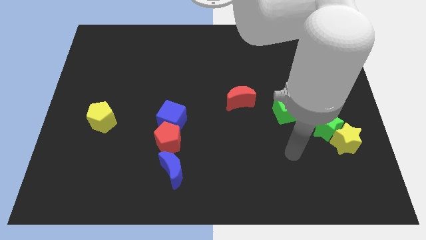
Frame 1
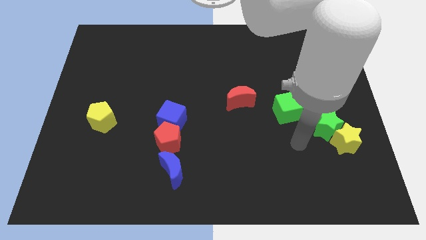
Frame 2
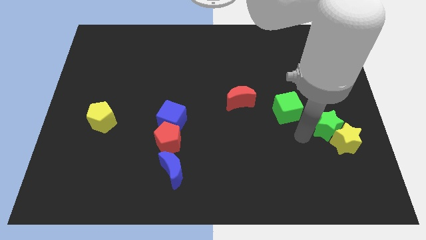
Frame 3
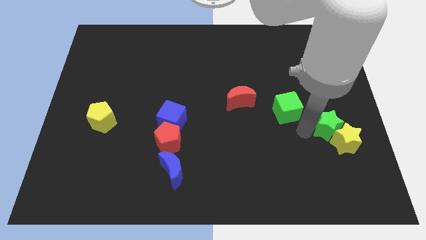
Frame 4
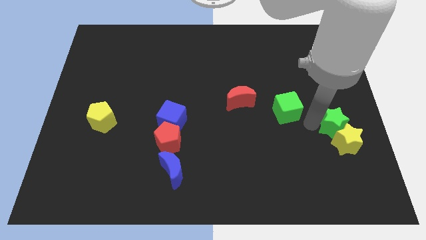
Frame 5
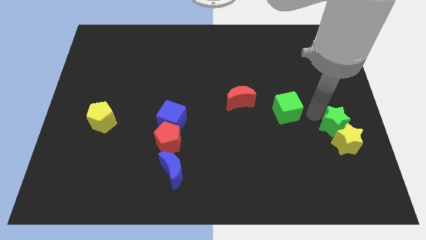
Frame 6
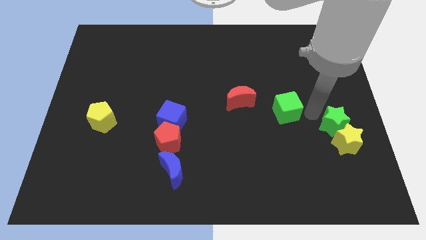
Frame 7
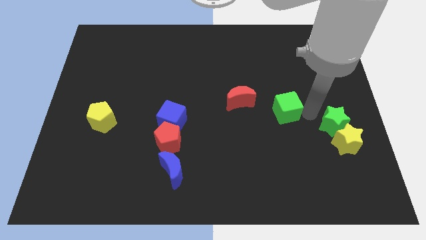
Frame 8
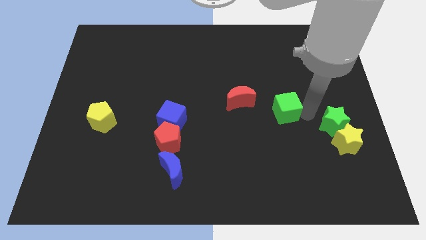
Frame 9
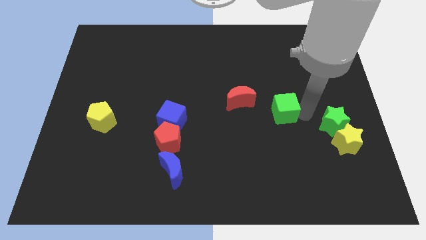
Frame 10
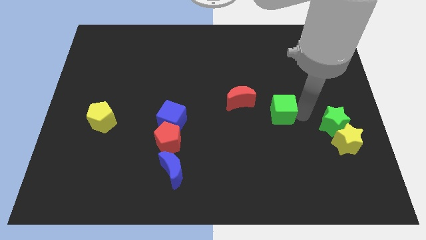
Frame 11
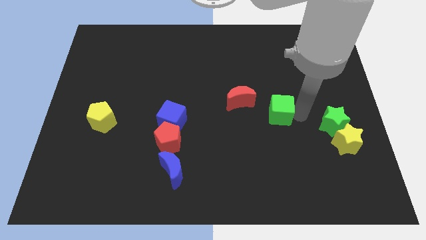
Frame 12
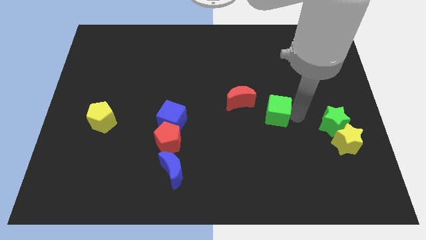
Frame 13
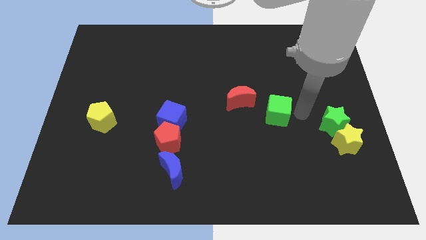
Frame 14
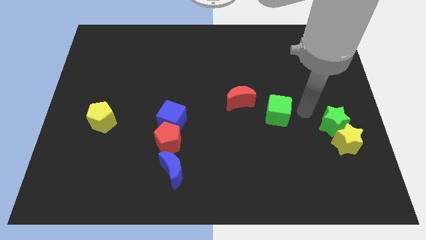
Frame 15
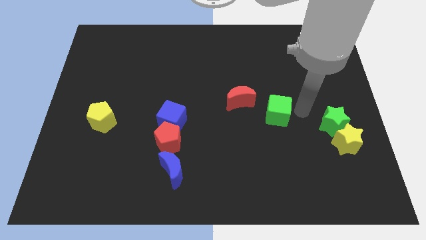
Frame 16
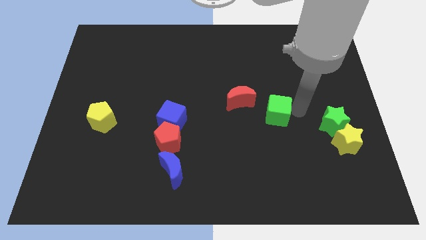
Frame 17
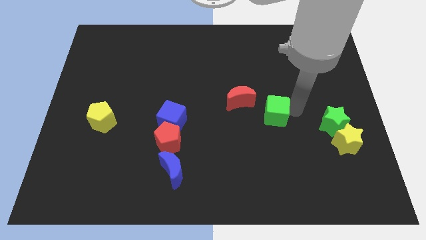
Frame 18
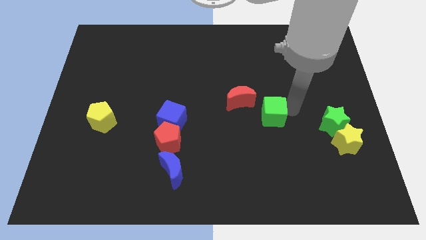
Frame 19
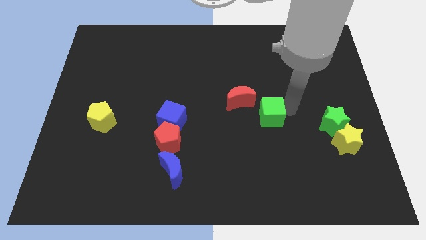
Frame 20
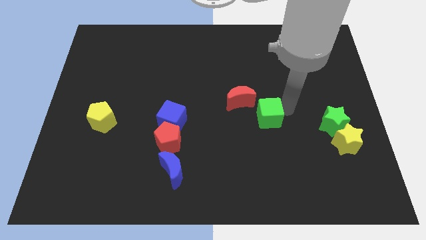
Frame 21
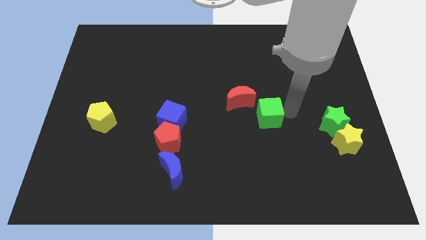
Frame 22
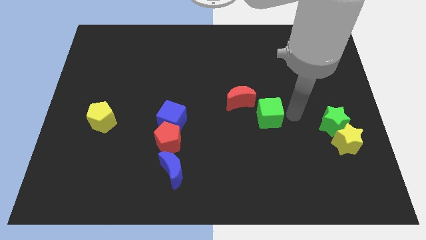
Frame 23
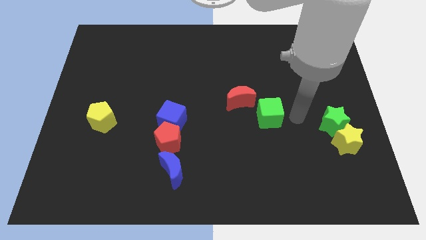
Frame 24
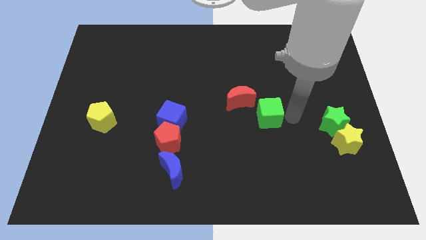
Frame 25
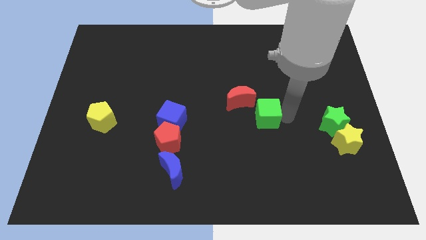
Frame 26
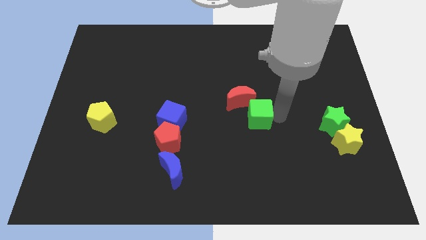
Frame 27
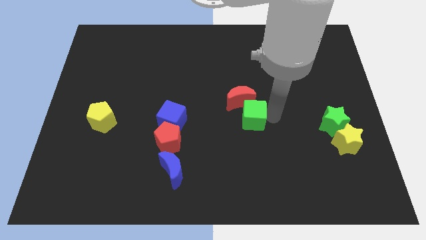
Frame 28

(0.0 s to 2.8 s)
move the green cube slightly left

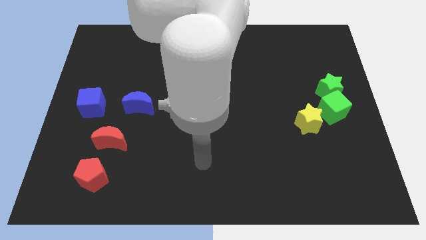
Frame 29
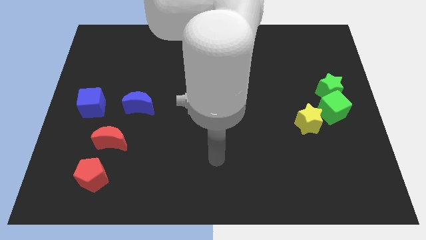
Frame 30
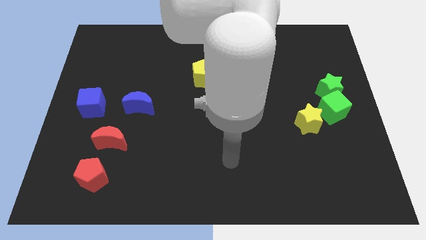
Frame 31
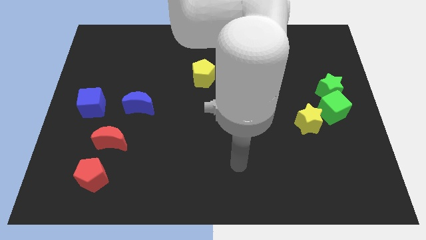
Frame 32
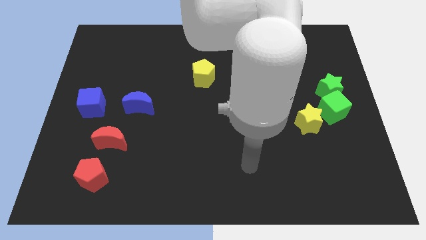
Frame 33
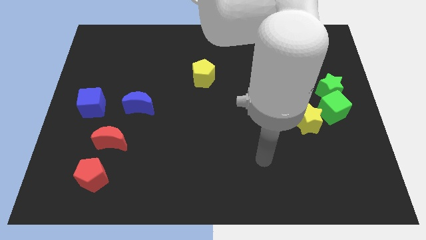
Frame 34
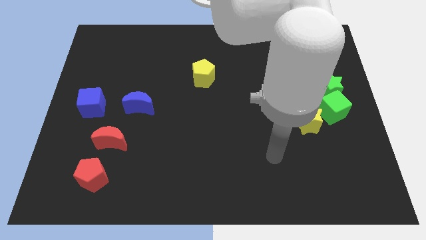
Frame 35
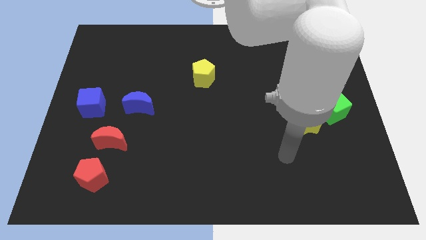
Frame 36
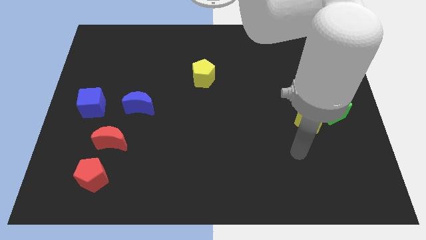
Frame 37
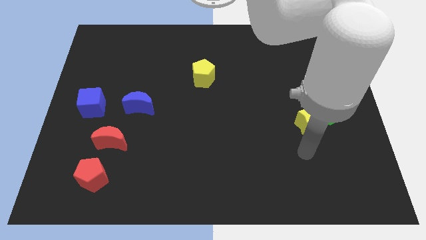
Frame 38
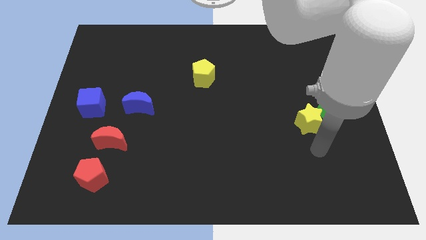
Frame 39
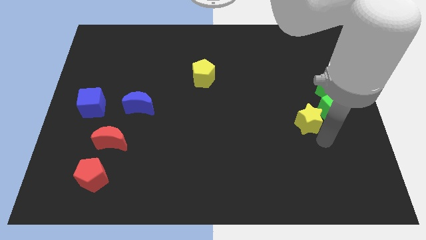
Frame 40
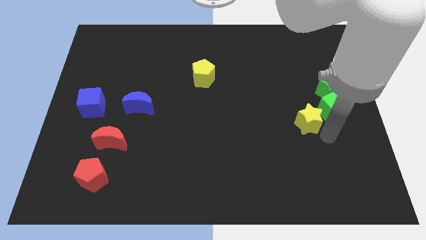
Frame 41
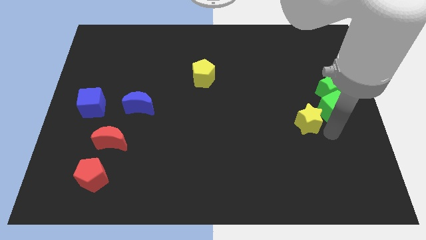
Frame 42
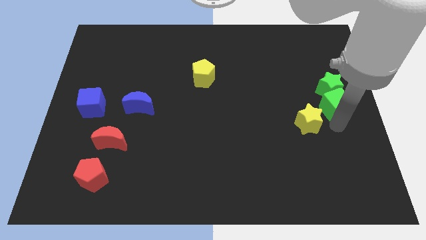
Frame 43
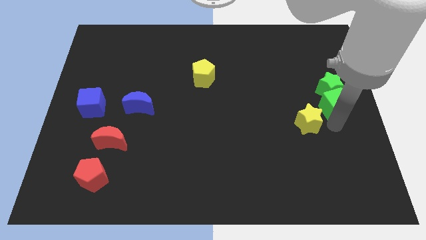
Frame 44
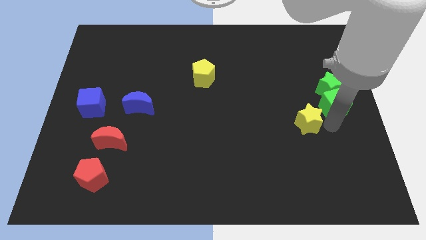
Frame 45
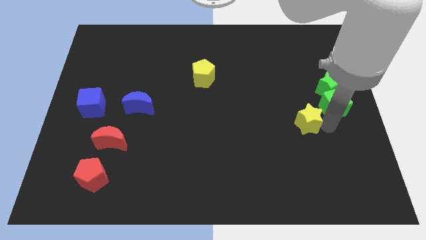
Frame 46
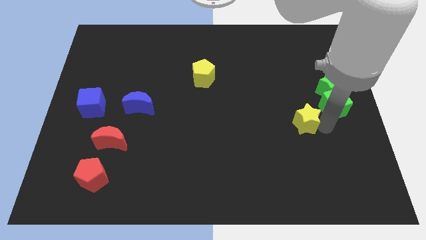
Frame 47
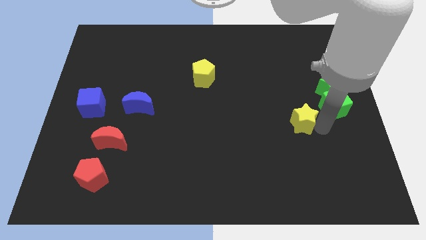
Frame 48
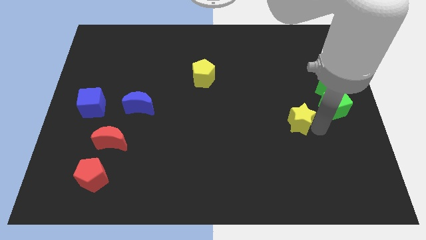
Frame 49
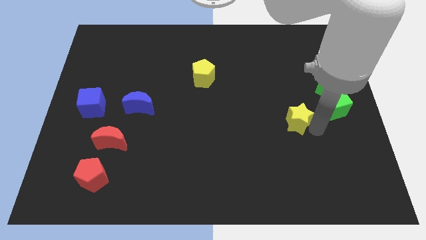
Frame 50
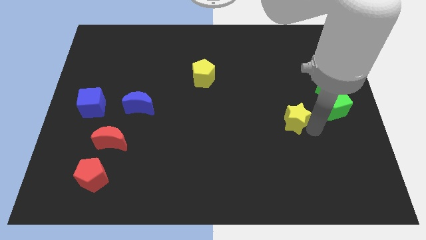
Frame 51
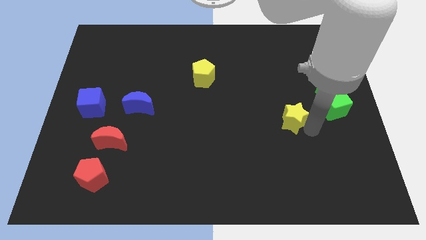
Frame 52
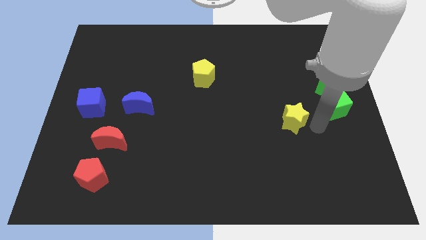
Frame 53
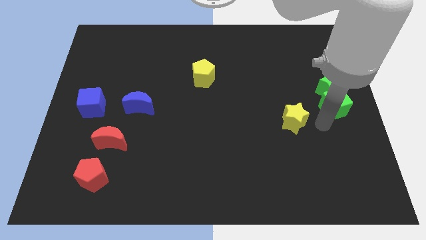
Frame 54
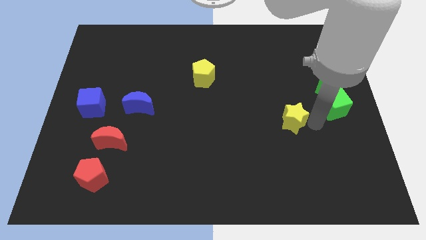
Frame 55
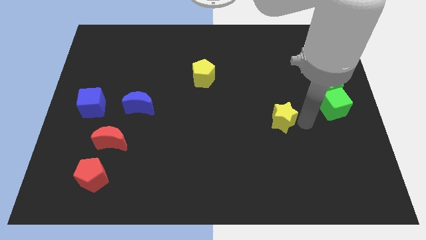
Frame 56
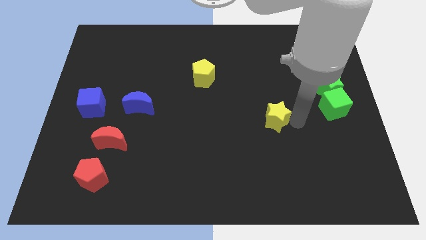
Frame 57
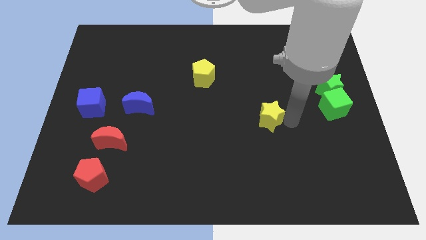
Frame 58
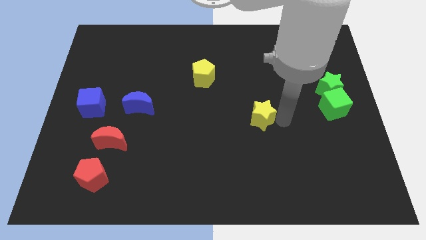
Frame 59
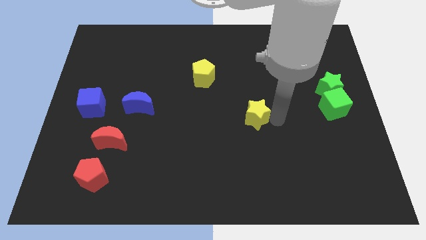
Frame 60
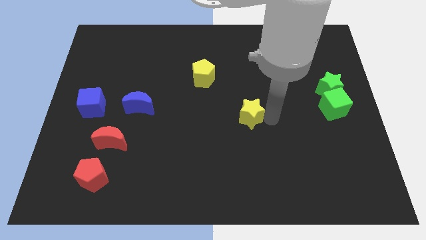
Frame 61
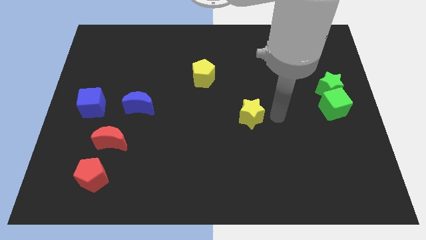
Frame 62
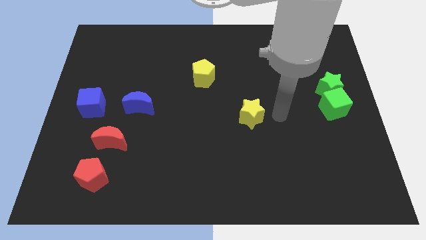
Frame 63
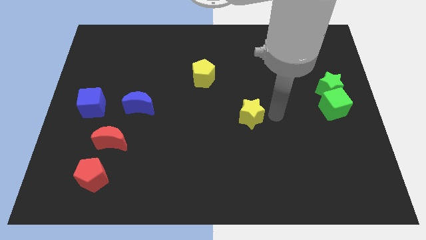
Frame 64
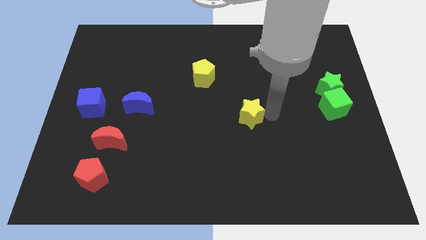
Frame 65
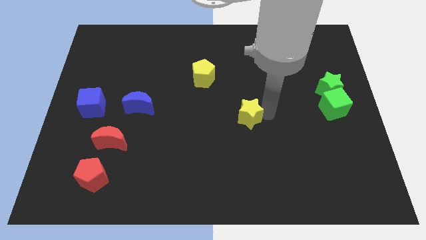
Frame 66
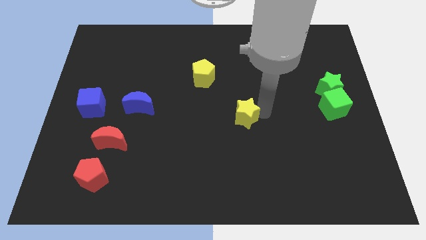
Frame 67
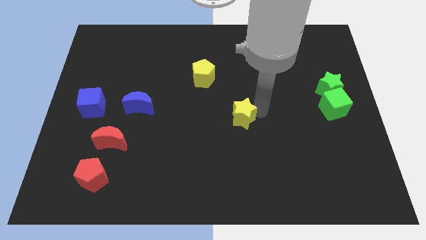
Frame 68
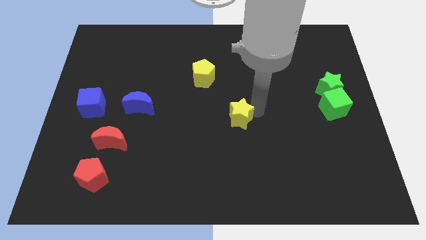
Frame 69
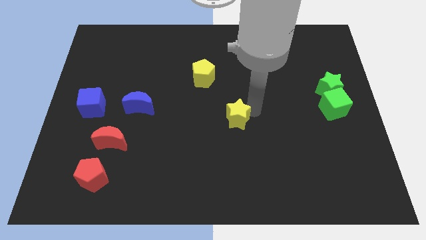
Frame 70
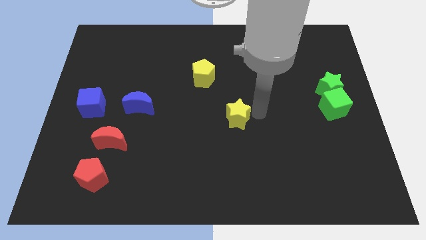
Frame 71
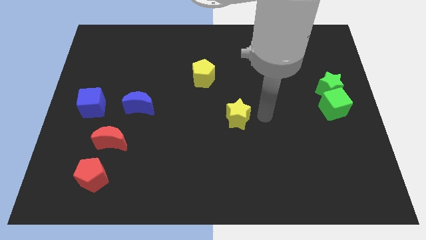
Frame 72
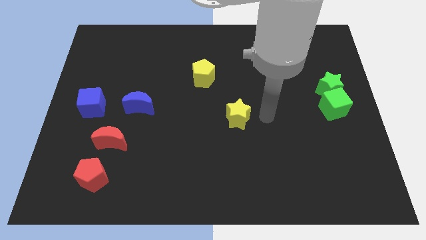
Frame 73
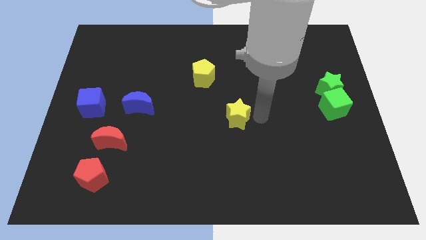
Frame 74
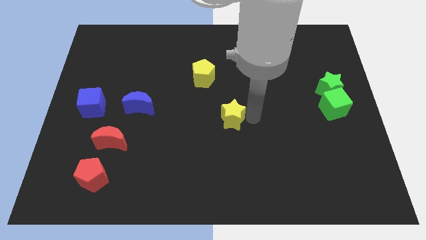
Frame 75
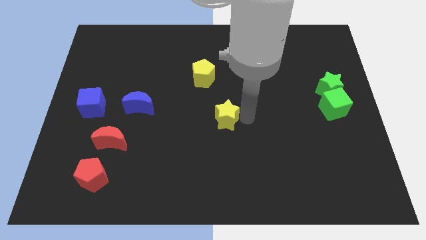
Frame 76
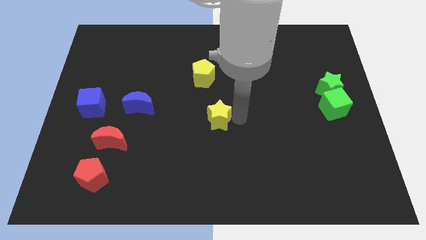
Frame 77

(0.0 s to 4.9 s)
push the yellow star left
